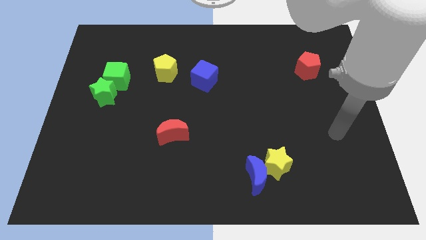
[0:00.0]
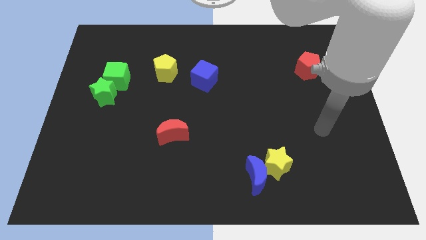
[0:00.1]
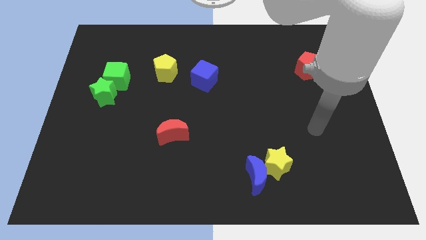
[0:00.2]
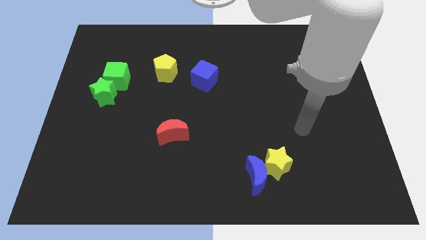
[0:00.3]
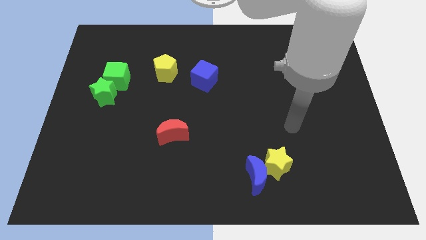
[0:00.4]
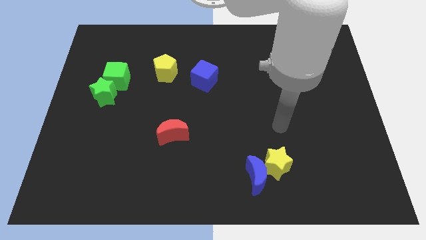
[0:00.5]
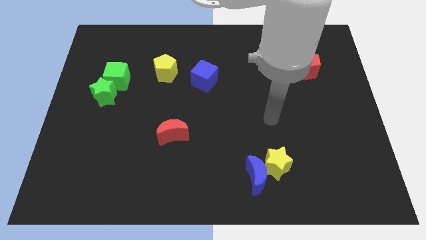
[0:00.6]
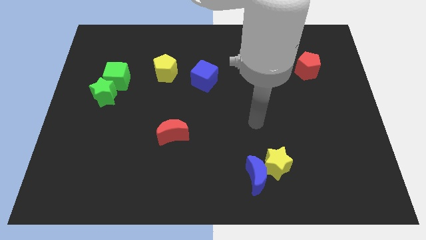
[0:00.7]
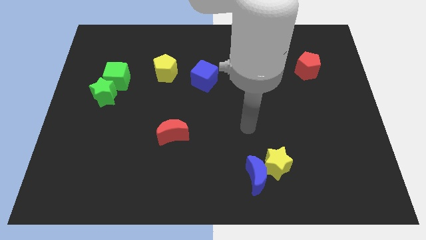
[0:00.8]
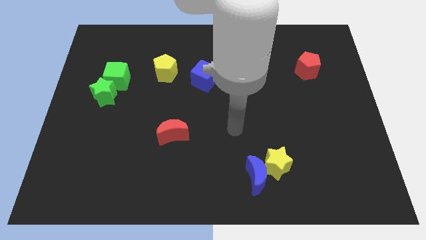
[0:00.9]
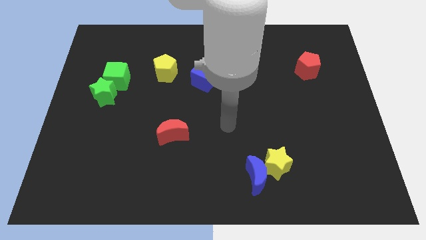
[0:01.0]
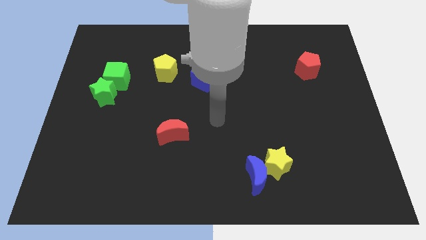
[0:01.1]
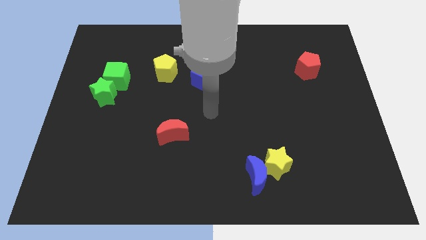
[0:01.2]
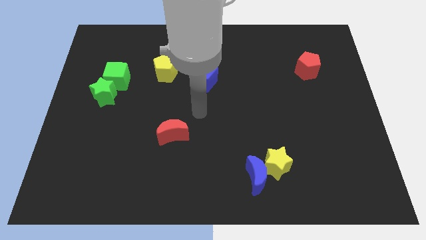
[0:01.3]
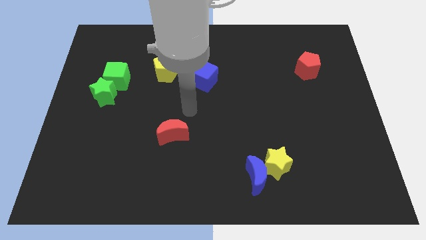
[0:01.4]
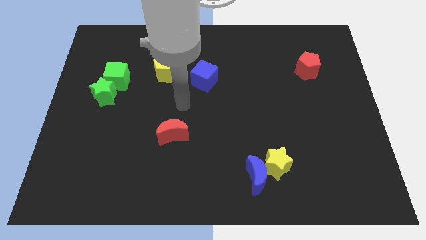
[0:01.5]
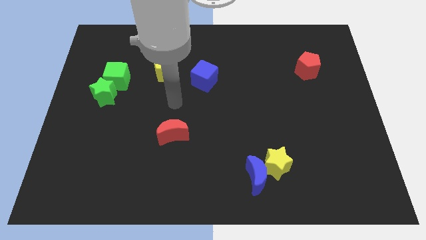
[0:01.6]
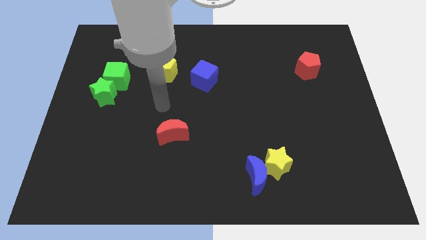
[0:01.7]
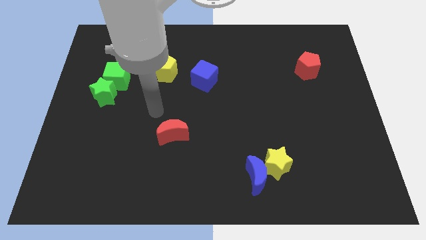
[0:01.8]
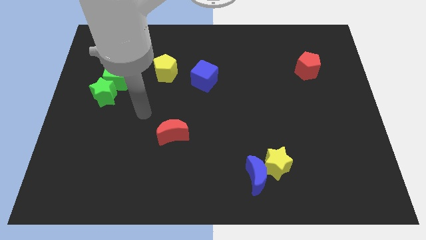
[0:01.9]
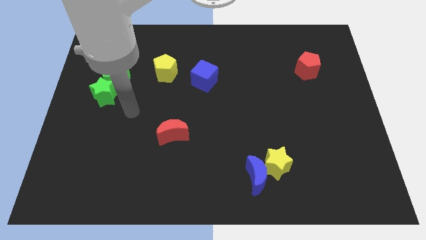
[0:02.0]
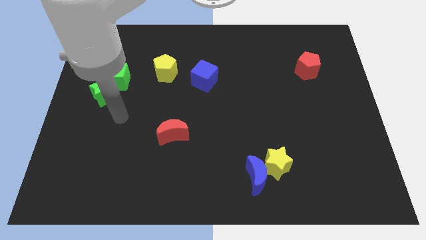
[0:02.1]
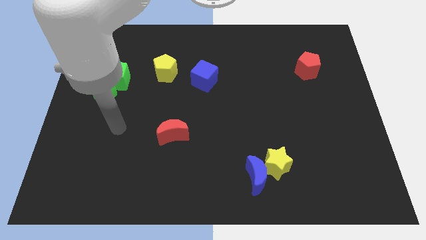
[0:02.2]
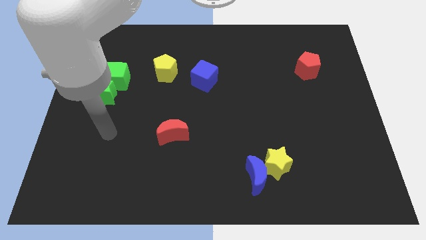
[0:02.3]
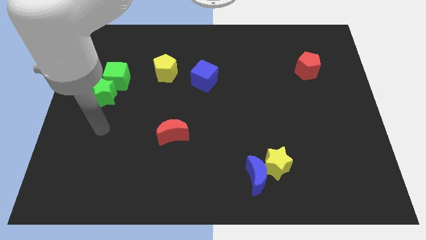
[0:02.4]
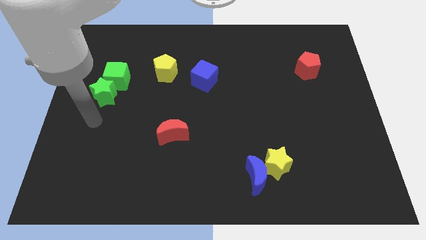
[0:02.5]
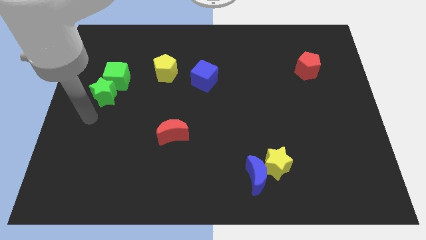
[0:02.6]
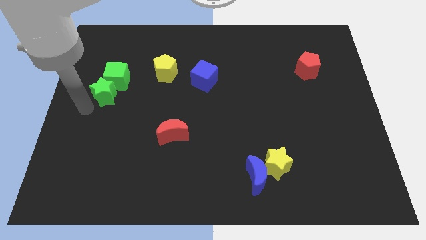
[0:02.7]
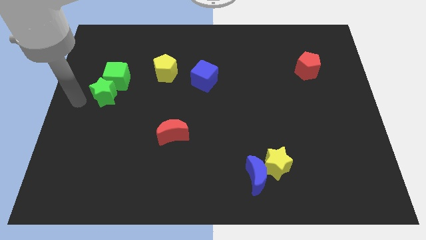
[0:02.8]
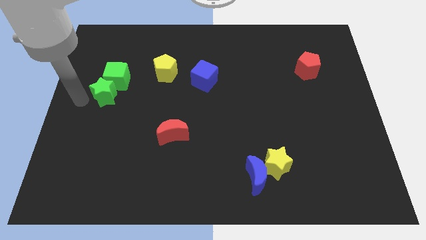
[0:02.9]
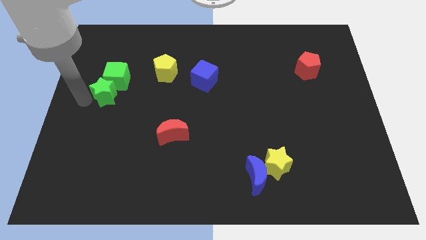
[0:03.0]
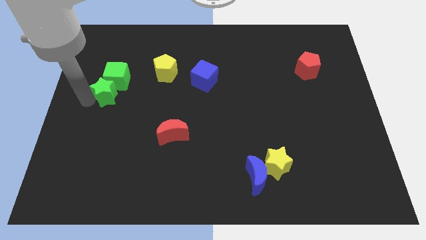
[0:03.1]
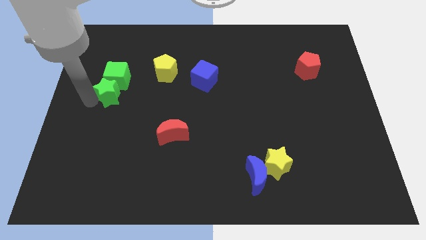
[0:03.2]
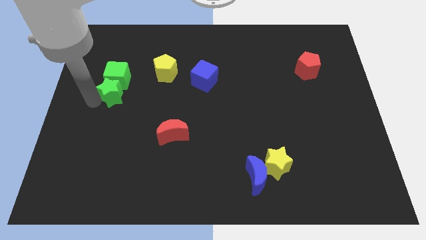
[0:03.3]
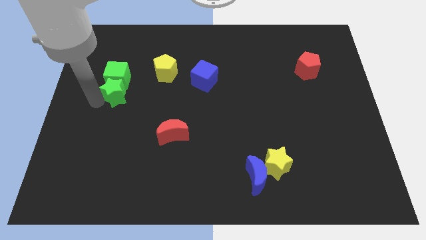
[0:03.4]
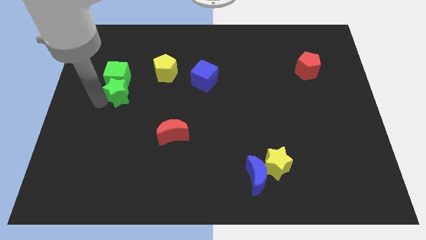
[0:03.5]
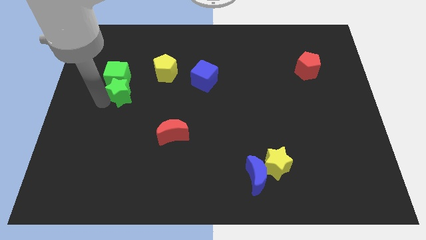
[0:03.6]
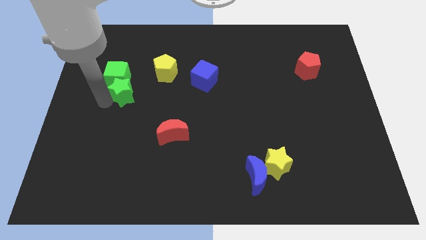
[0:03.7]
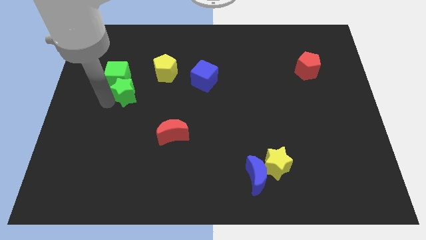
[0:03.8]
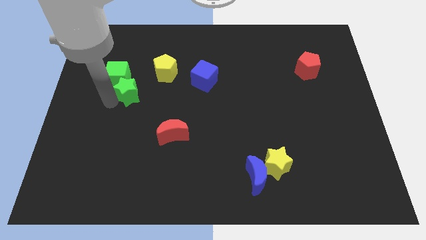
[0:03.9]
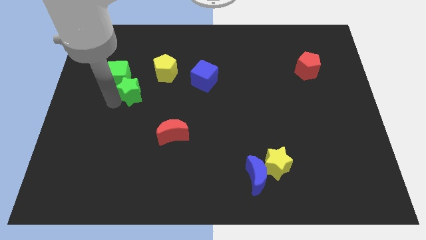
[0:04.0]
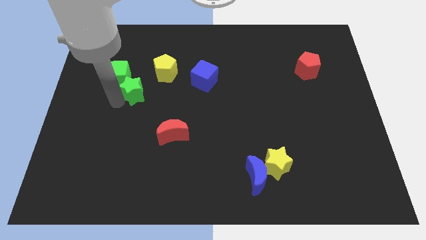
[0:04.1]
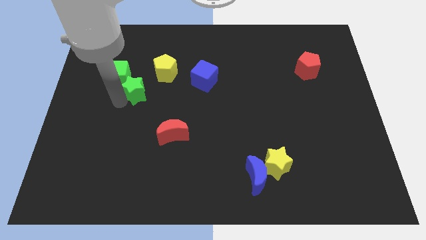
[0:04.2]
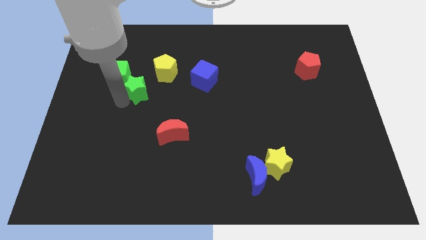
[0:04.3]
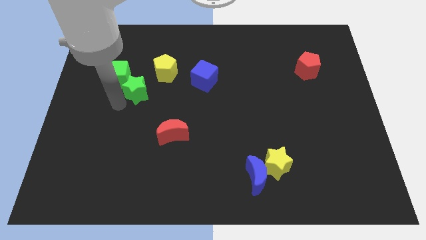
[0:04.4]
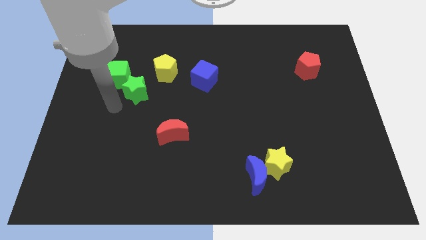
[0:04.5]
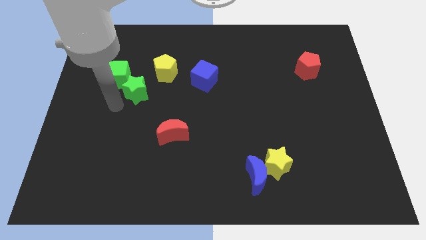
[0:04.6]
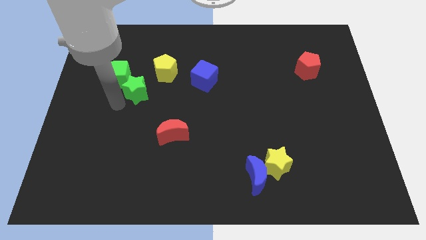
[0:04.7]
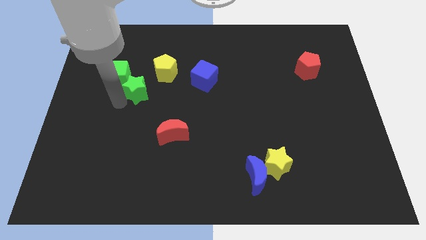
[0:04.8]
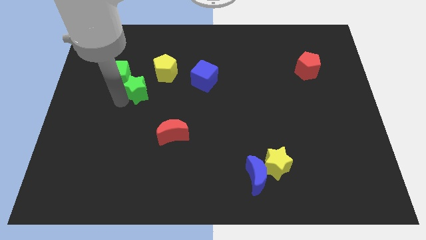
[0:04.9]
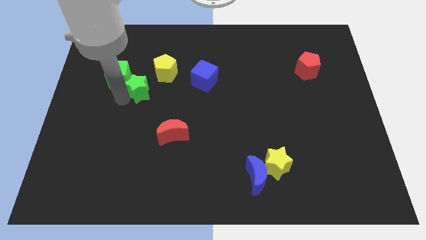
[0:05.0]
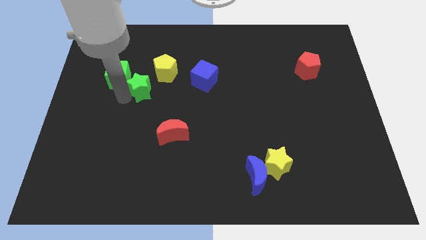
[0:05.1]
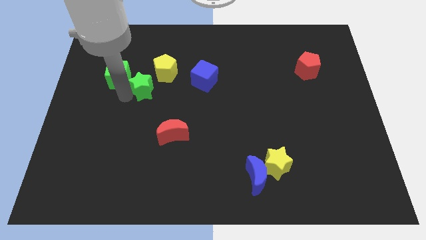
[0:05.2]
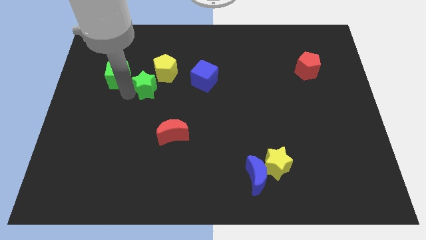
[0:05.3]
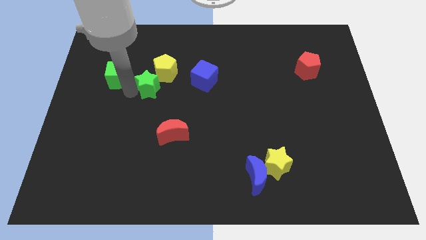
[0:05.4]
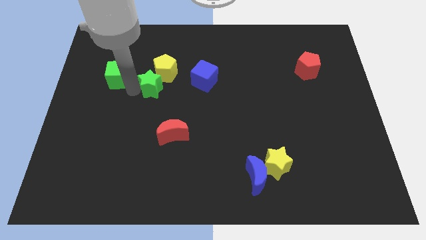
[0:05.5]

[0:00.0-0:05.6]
put the green star towards the yellow pentagon

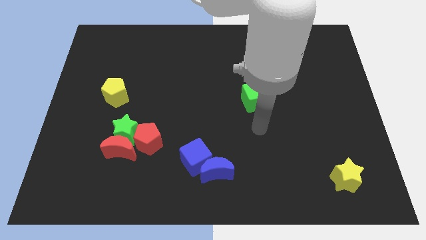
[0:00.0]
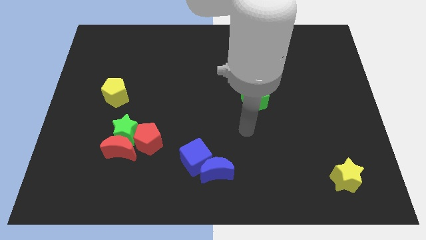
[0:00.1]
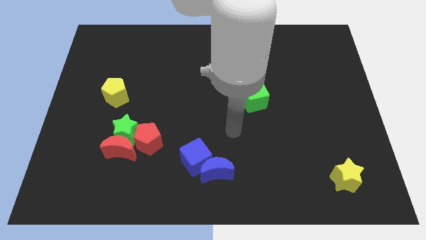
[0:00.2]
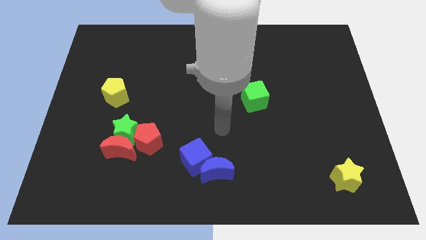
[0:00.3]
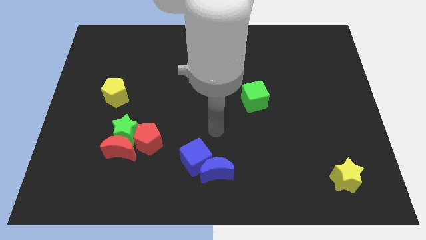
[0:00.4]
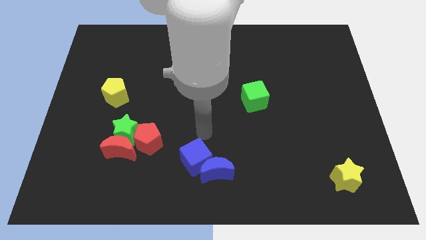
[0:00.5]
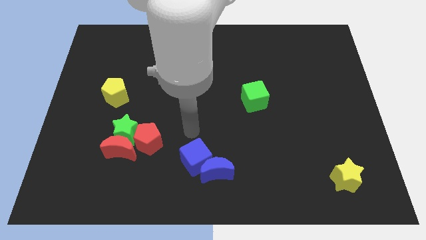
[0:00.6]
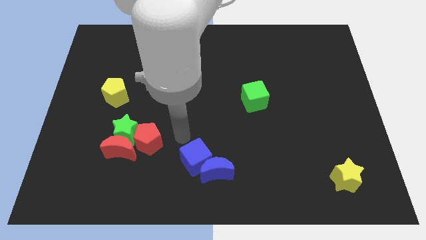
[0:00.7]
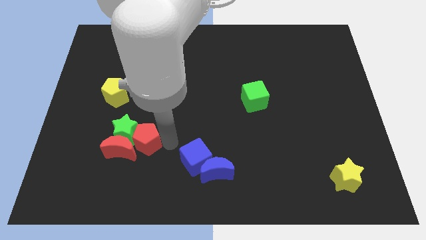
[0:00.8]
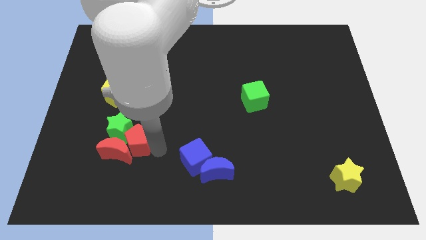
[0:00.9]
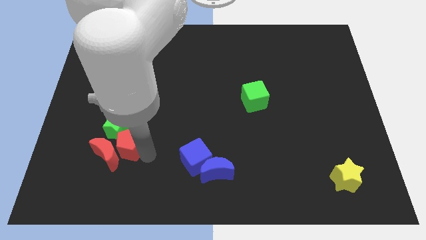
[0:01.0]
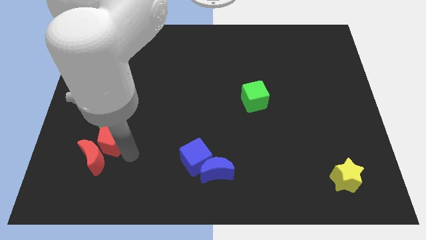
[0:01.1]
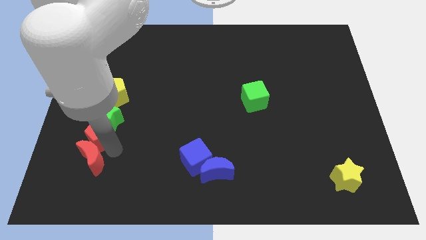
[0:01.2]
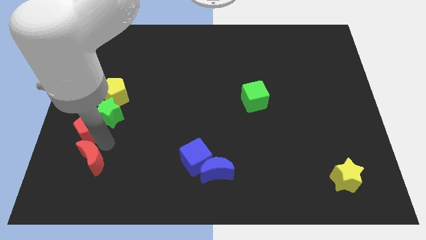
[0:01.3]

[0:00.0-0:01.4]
put the green star close to the yellow pentagon
